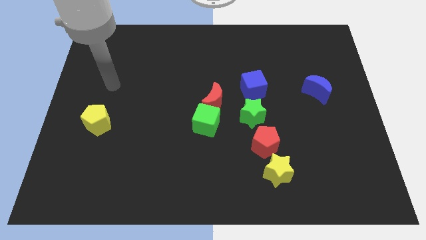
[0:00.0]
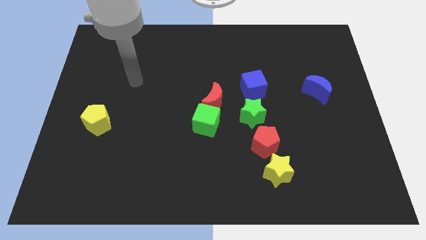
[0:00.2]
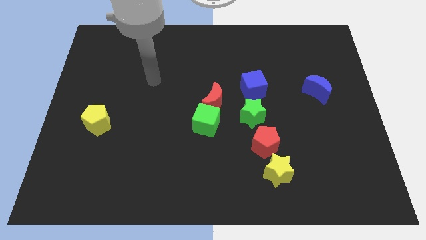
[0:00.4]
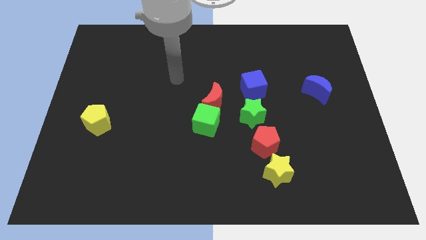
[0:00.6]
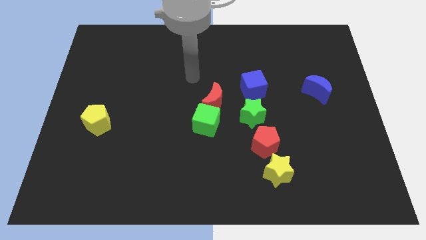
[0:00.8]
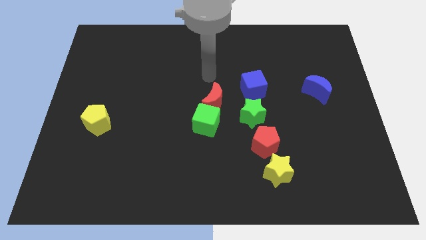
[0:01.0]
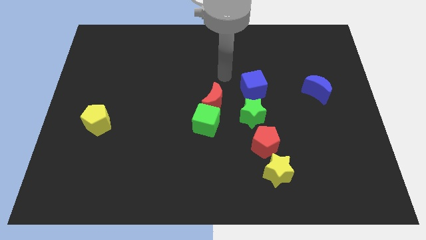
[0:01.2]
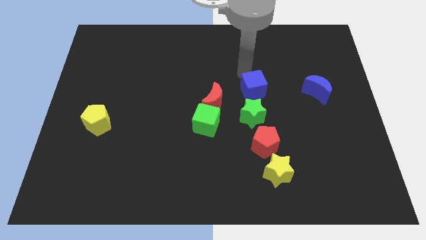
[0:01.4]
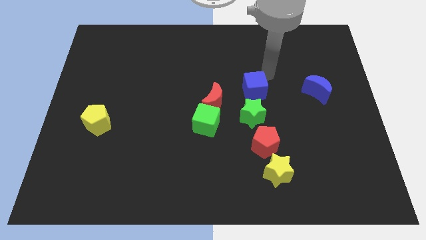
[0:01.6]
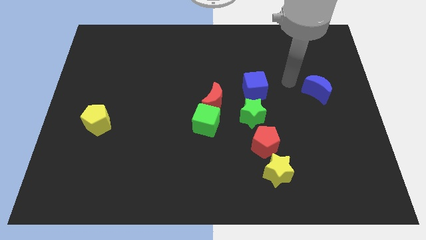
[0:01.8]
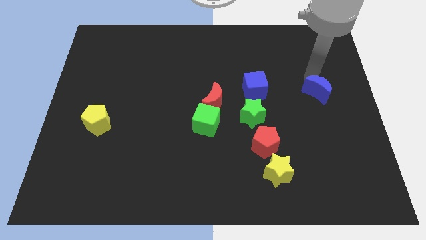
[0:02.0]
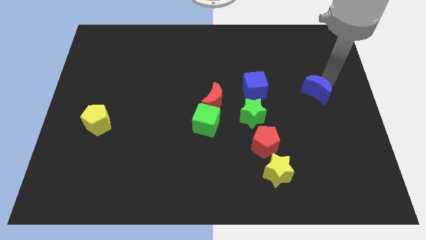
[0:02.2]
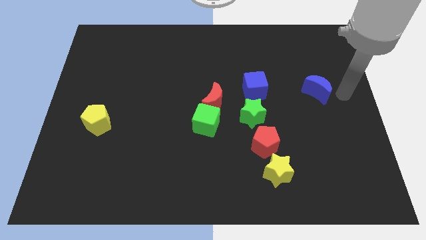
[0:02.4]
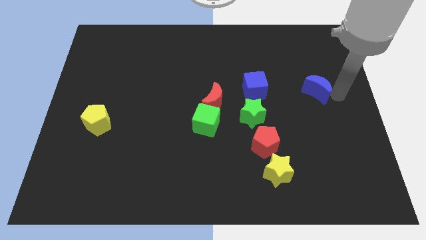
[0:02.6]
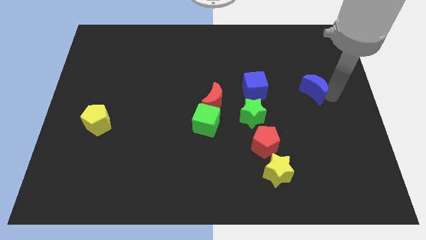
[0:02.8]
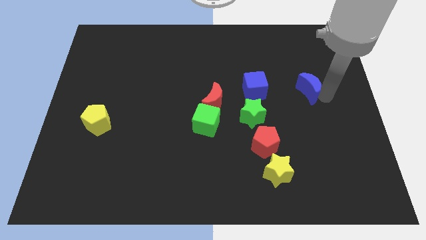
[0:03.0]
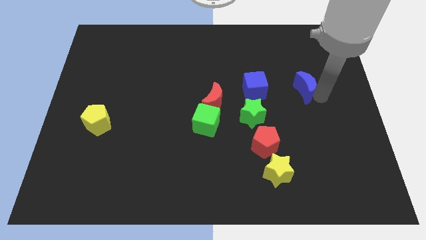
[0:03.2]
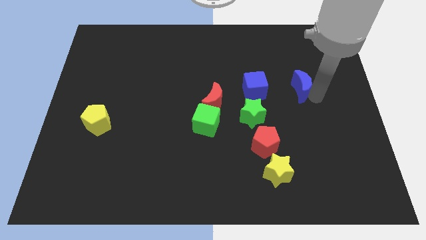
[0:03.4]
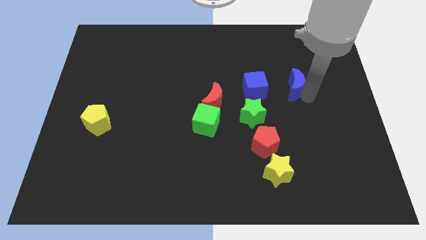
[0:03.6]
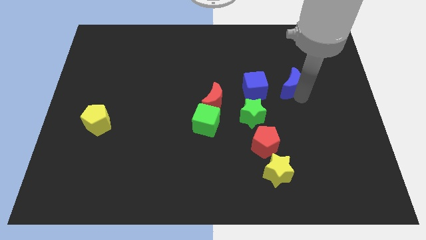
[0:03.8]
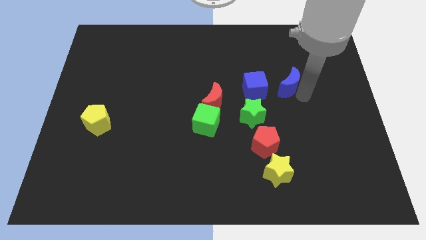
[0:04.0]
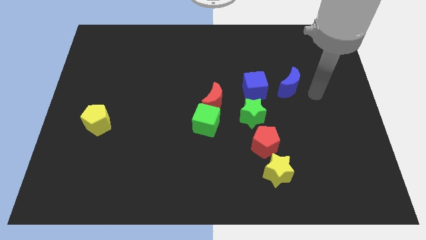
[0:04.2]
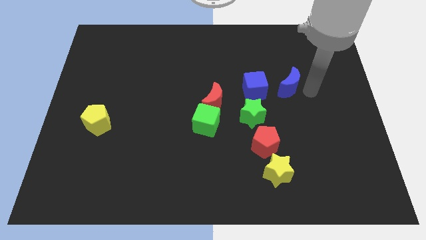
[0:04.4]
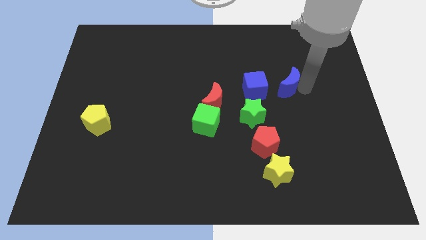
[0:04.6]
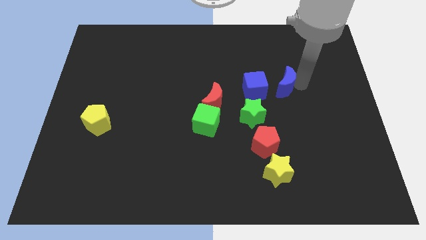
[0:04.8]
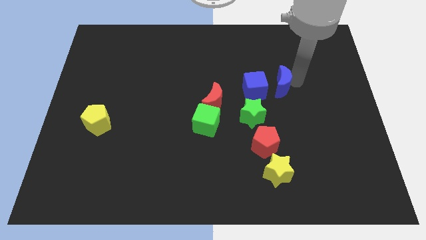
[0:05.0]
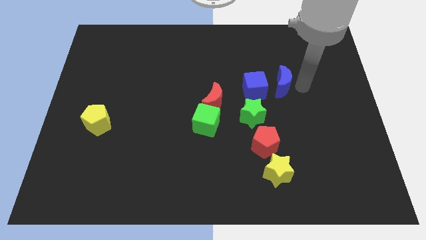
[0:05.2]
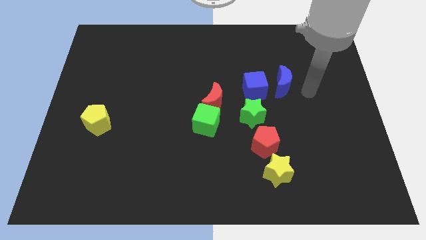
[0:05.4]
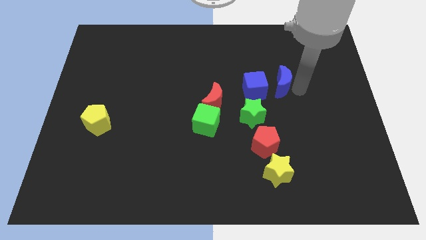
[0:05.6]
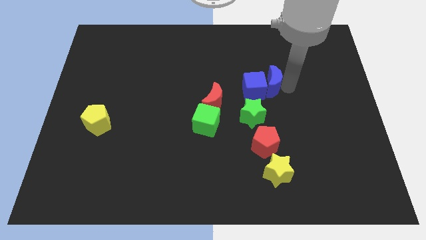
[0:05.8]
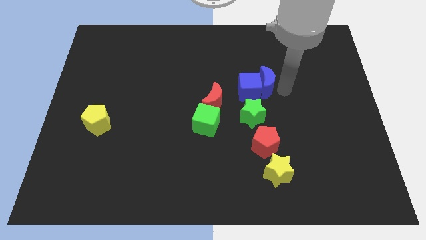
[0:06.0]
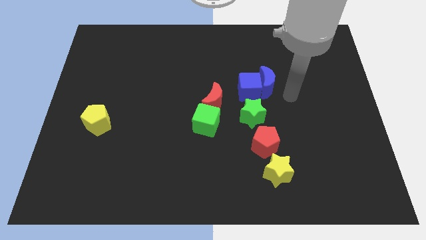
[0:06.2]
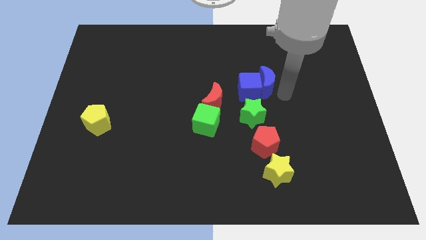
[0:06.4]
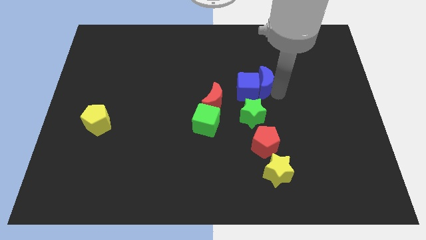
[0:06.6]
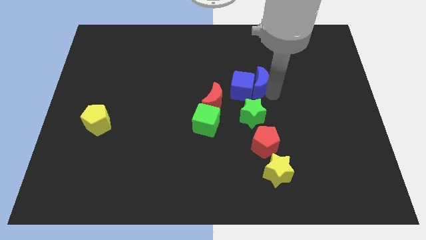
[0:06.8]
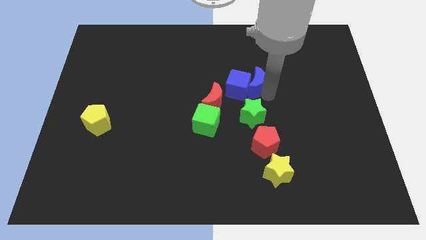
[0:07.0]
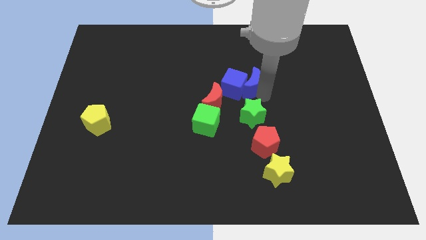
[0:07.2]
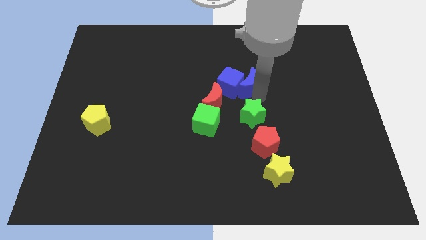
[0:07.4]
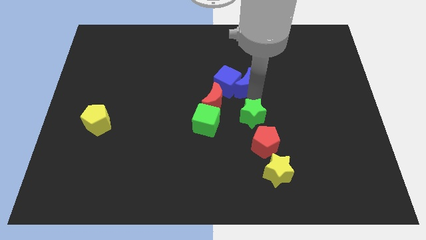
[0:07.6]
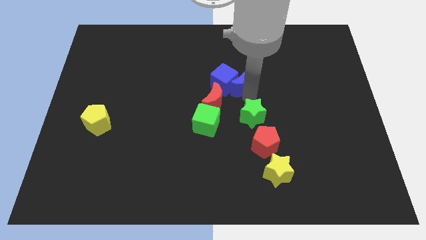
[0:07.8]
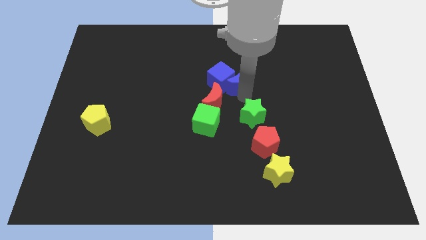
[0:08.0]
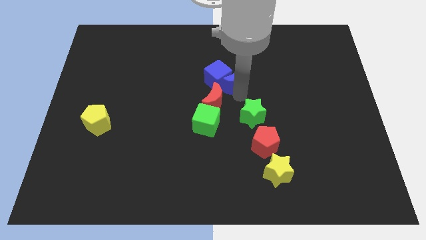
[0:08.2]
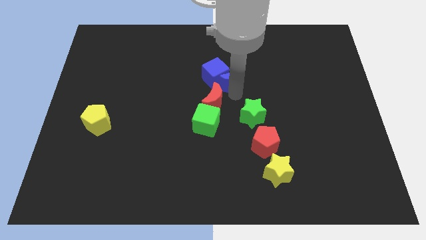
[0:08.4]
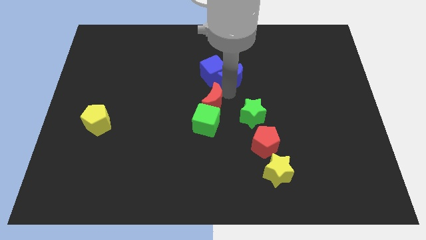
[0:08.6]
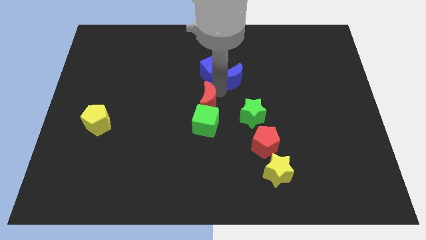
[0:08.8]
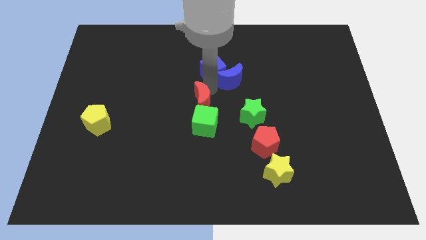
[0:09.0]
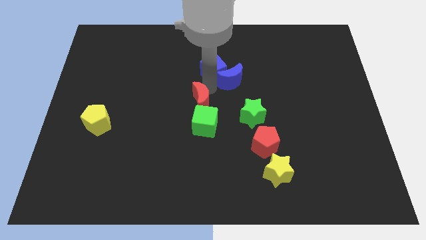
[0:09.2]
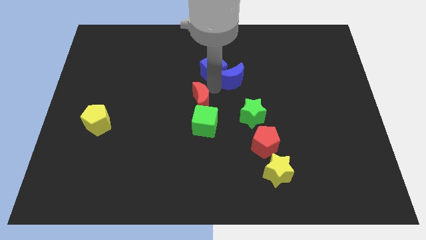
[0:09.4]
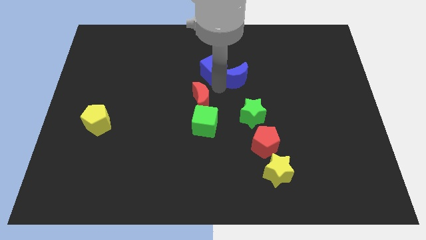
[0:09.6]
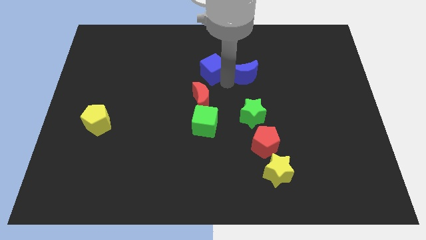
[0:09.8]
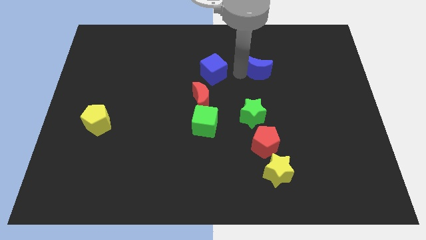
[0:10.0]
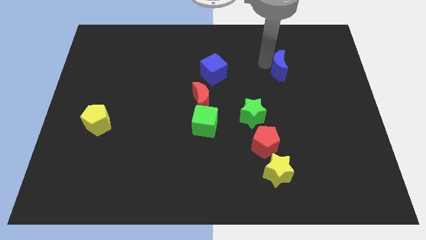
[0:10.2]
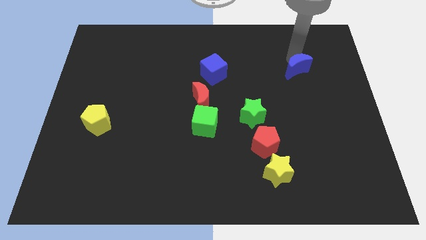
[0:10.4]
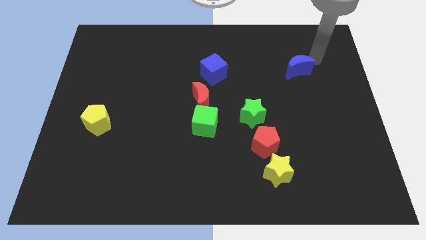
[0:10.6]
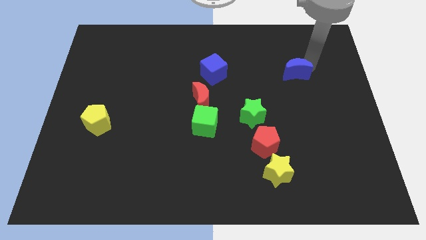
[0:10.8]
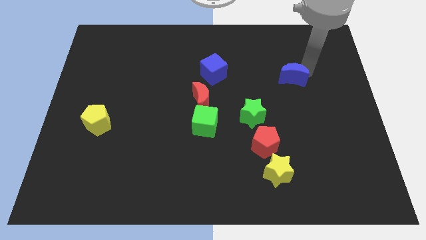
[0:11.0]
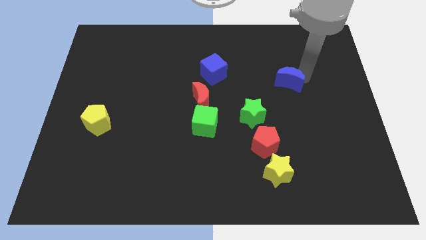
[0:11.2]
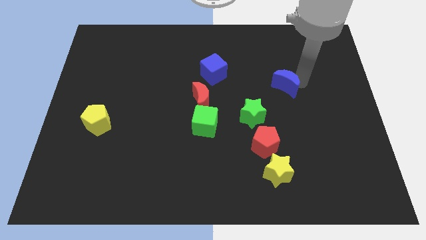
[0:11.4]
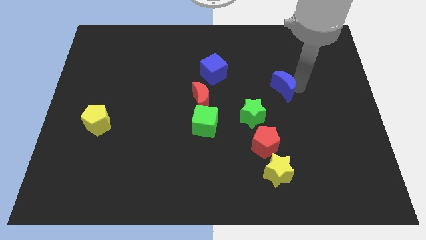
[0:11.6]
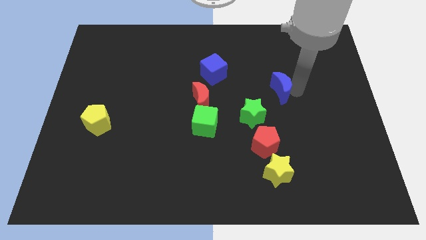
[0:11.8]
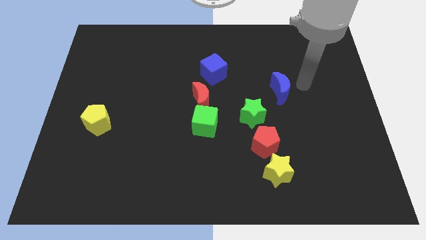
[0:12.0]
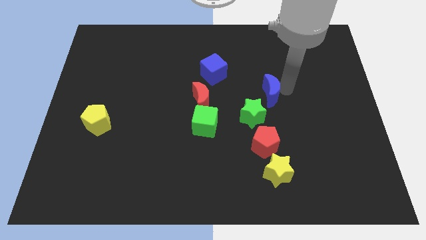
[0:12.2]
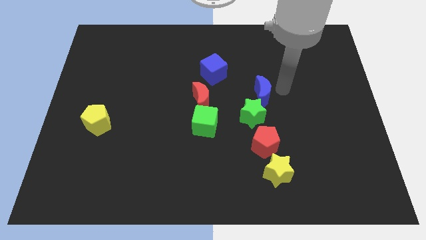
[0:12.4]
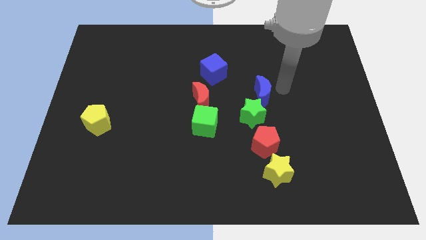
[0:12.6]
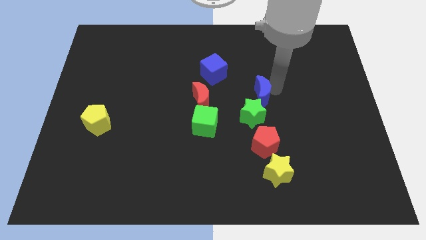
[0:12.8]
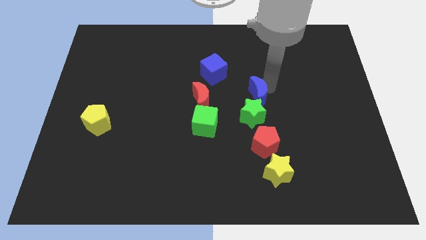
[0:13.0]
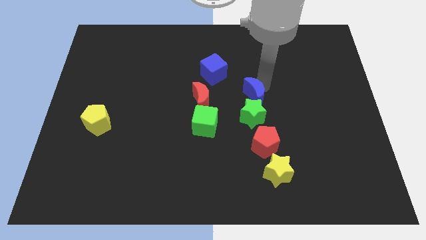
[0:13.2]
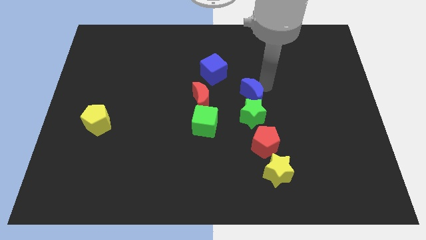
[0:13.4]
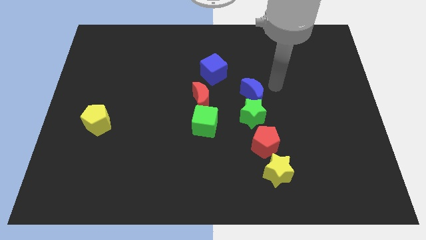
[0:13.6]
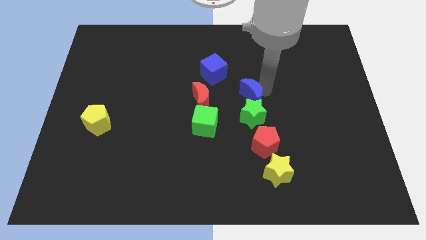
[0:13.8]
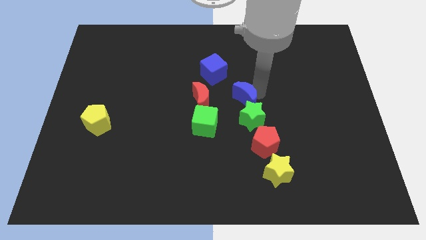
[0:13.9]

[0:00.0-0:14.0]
slide the blue moon to the top right of the green cube

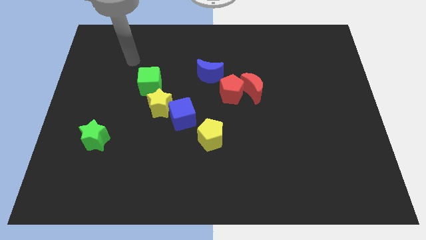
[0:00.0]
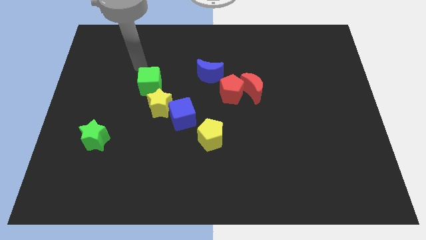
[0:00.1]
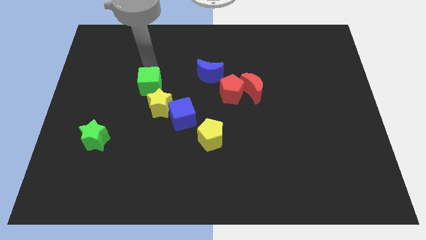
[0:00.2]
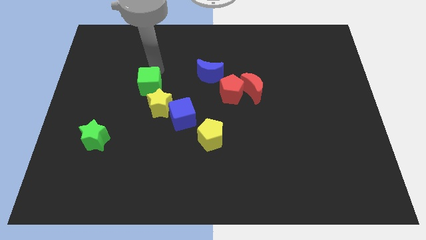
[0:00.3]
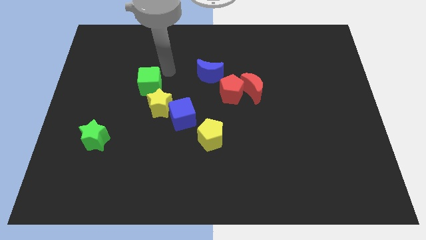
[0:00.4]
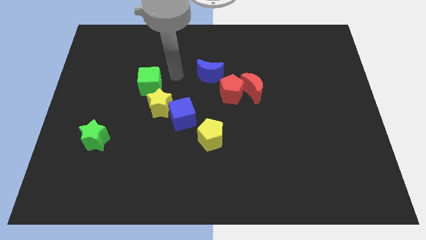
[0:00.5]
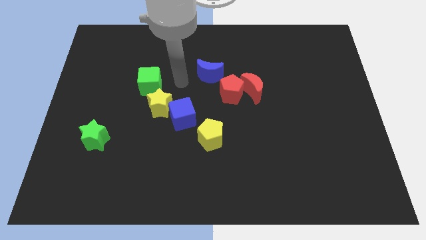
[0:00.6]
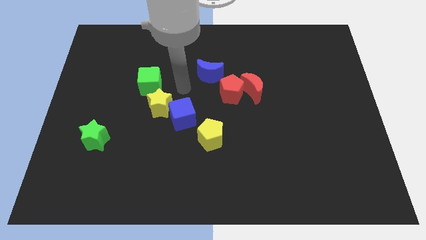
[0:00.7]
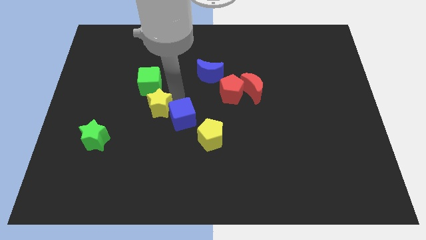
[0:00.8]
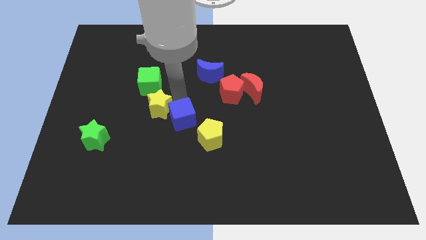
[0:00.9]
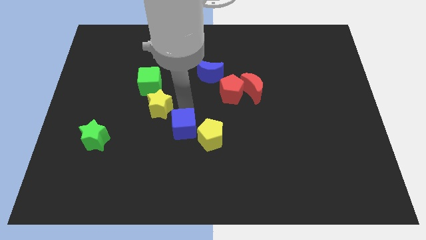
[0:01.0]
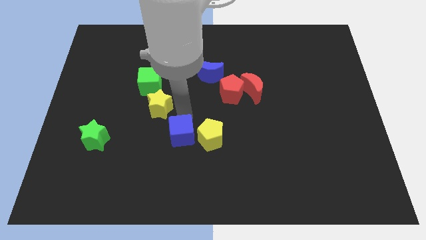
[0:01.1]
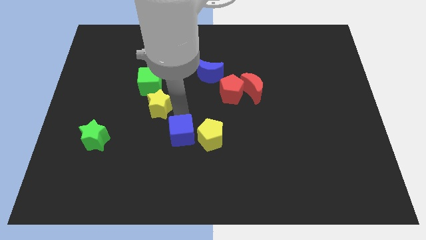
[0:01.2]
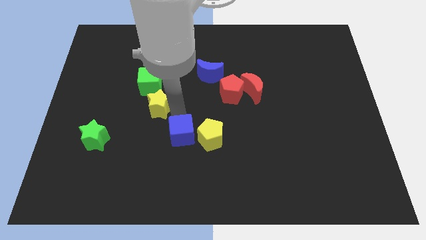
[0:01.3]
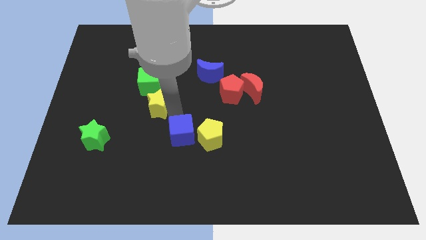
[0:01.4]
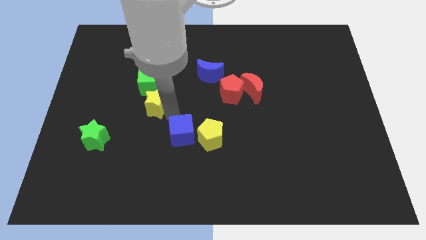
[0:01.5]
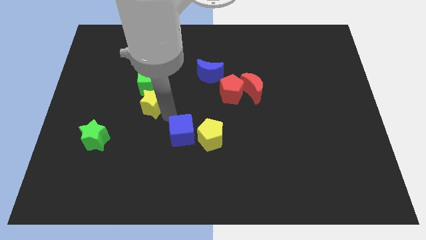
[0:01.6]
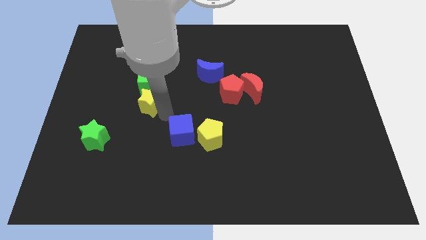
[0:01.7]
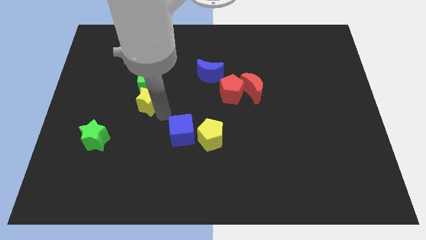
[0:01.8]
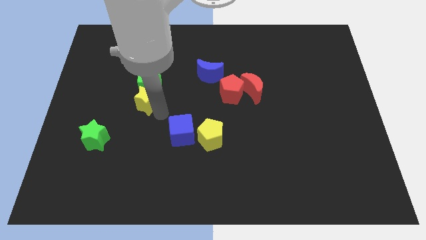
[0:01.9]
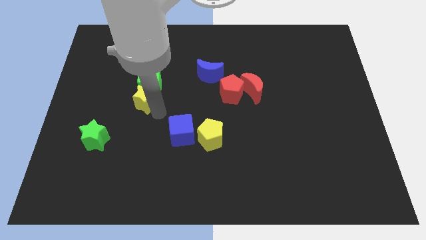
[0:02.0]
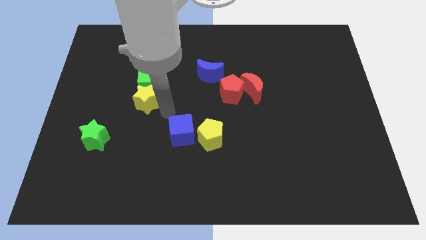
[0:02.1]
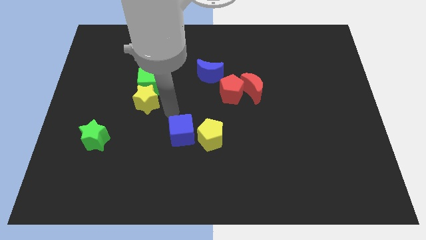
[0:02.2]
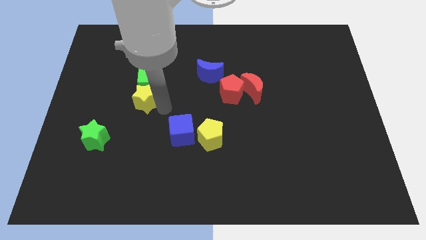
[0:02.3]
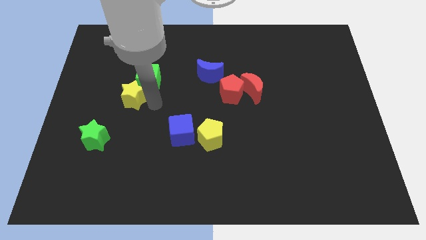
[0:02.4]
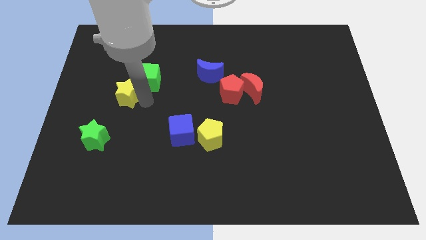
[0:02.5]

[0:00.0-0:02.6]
slide the yellow star left of the green cube
